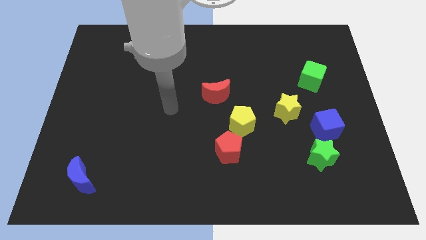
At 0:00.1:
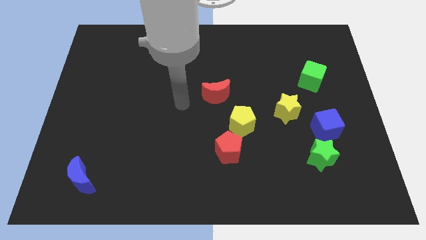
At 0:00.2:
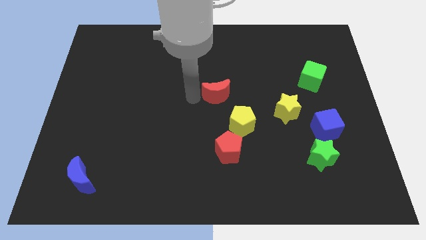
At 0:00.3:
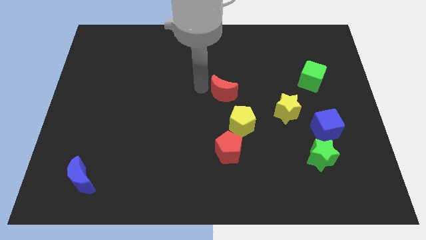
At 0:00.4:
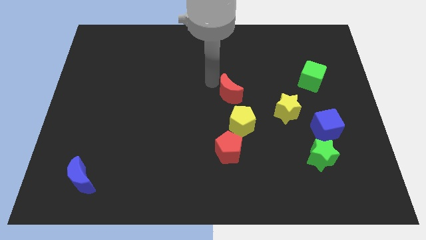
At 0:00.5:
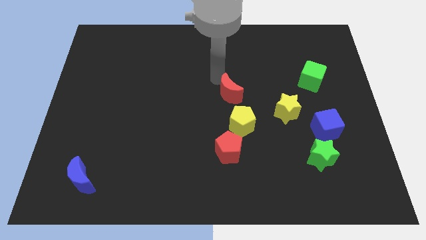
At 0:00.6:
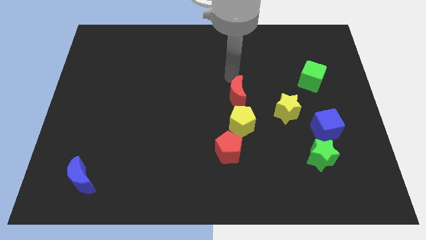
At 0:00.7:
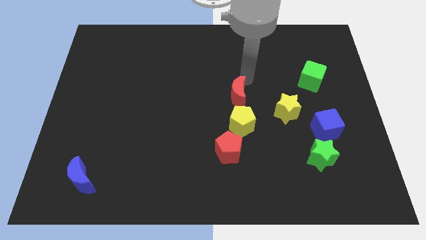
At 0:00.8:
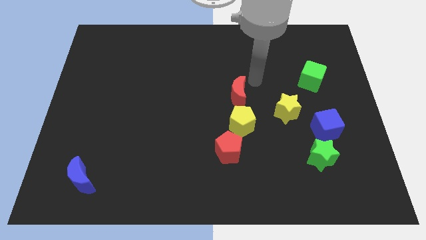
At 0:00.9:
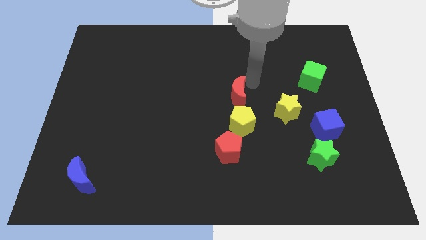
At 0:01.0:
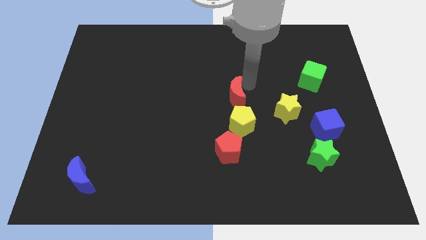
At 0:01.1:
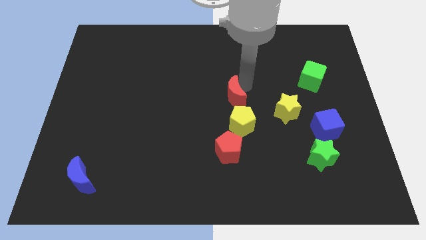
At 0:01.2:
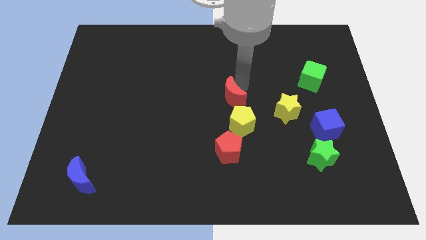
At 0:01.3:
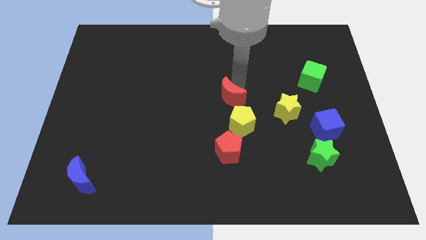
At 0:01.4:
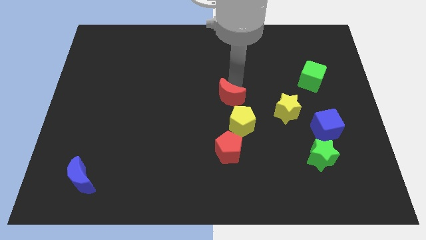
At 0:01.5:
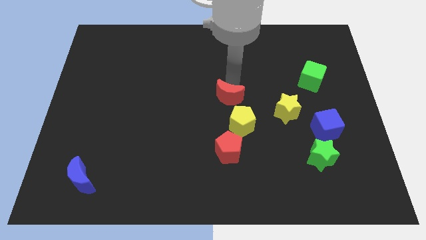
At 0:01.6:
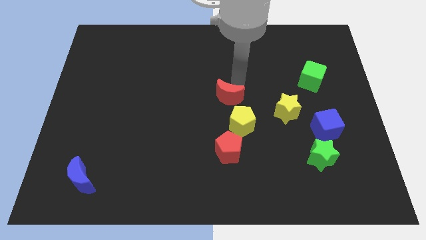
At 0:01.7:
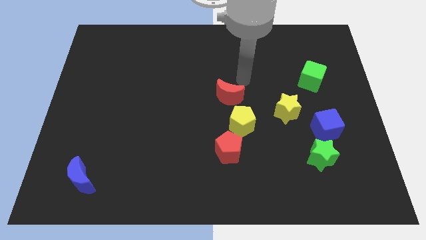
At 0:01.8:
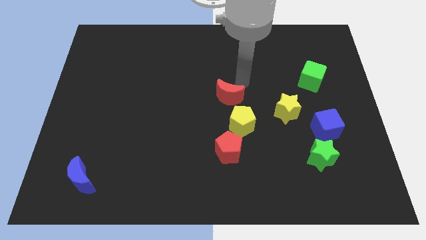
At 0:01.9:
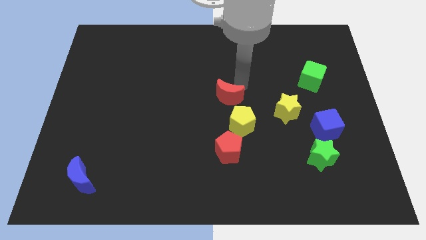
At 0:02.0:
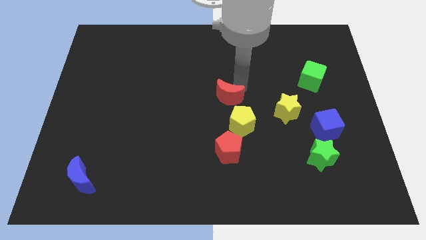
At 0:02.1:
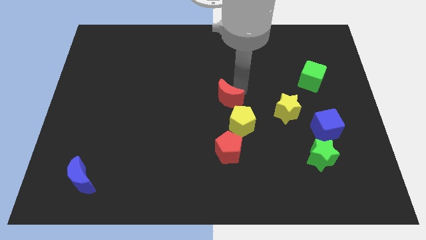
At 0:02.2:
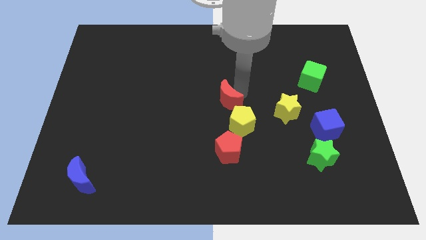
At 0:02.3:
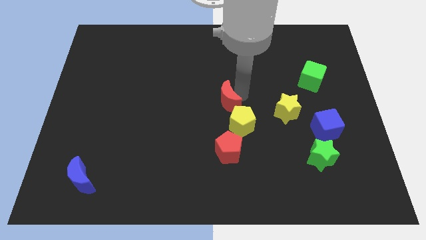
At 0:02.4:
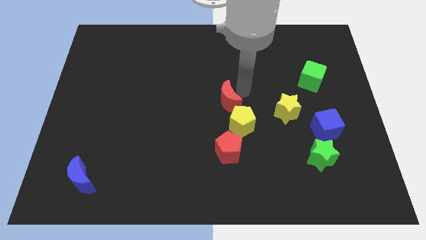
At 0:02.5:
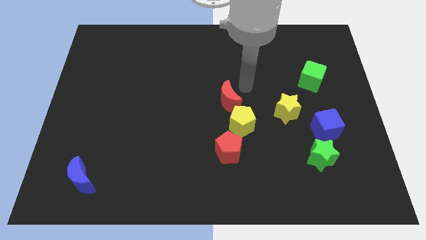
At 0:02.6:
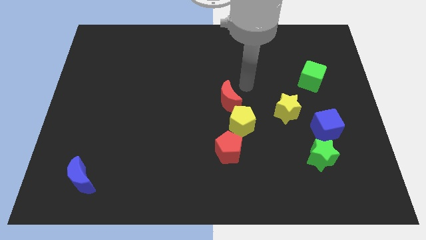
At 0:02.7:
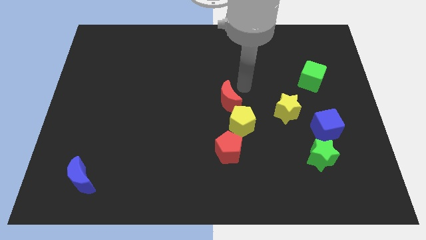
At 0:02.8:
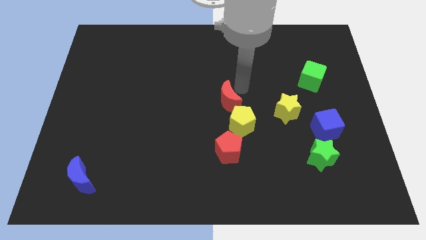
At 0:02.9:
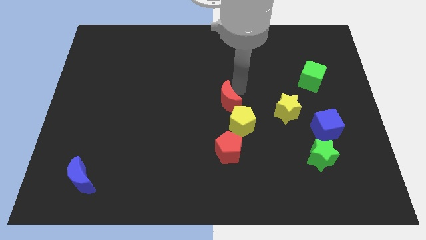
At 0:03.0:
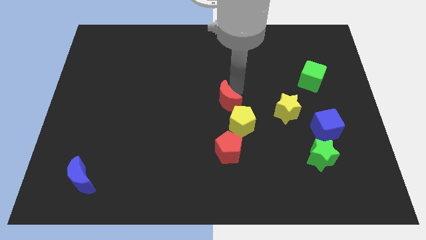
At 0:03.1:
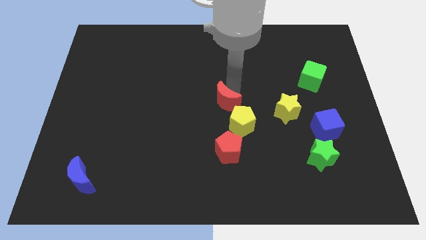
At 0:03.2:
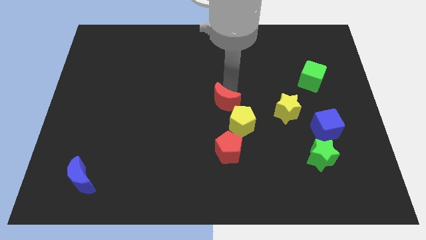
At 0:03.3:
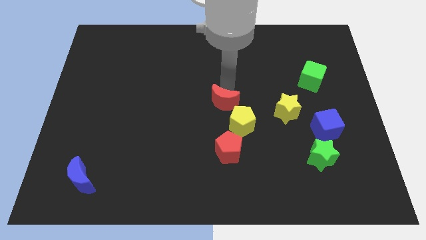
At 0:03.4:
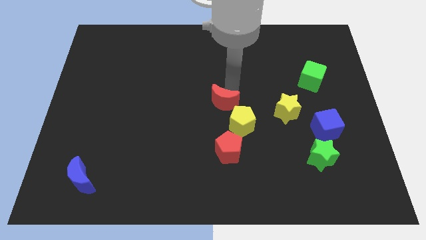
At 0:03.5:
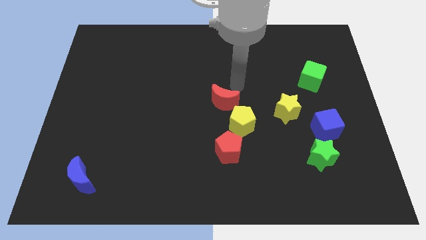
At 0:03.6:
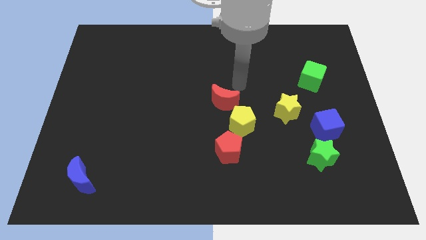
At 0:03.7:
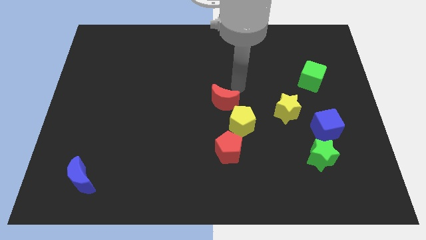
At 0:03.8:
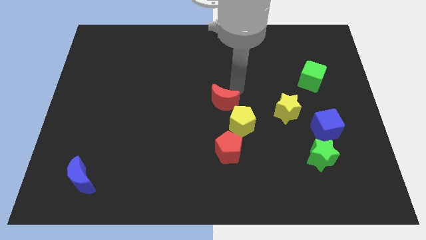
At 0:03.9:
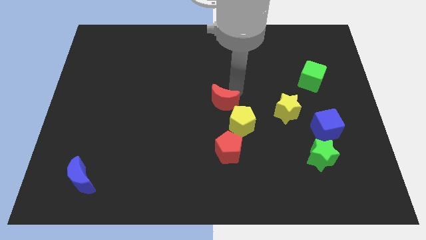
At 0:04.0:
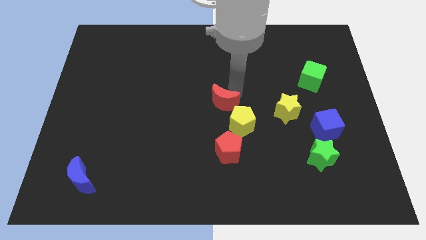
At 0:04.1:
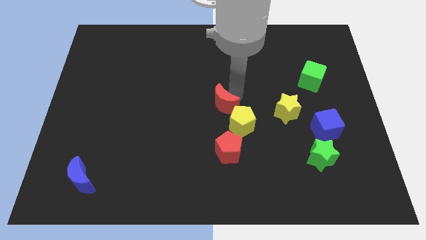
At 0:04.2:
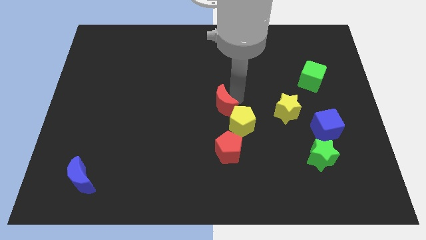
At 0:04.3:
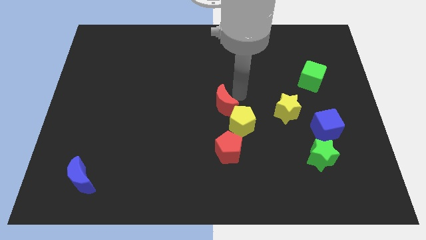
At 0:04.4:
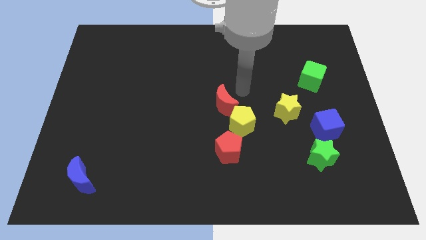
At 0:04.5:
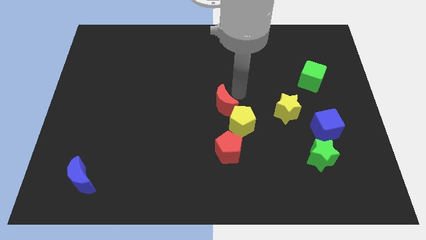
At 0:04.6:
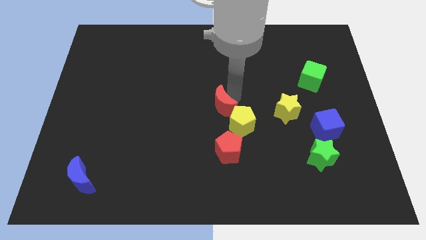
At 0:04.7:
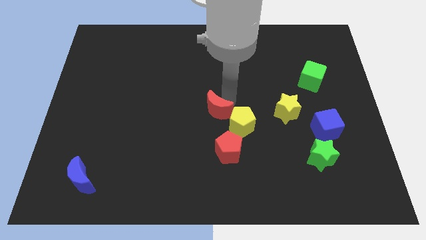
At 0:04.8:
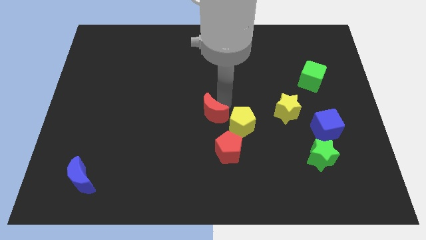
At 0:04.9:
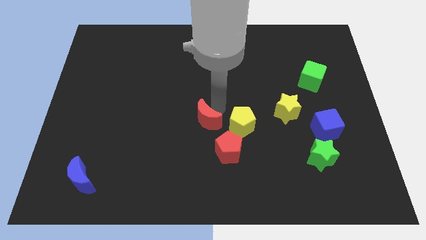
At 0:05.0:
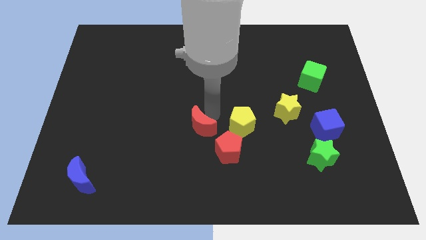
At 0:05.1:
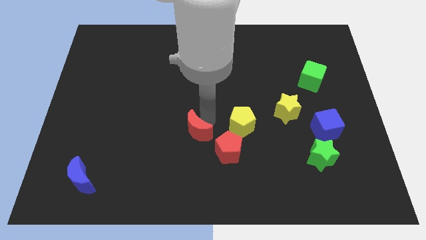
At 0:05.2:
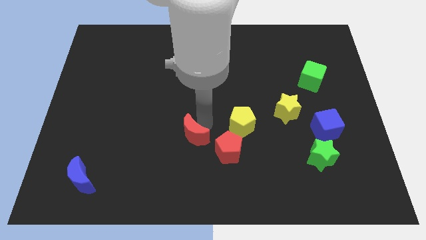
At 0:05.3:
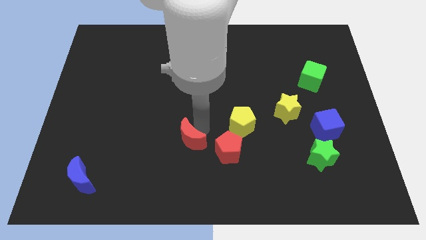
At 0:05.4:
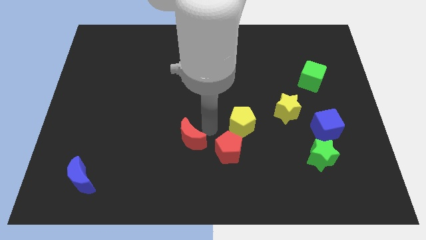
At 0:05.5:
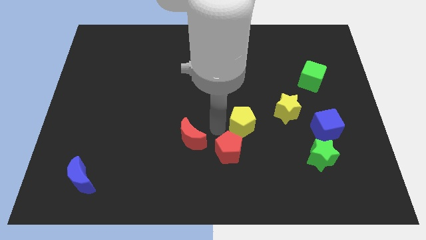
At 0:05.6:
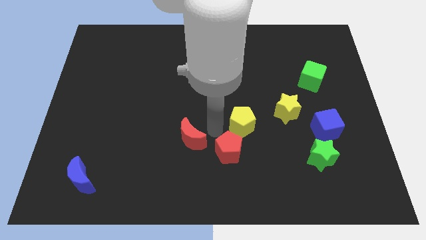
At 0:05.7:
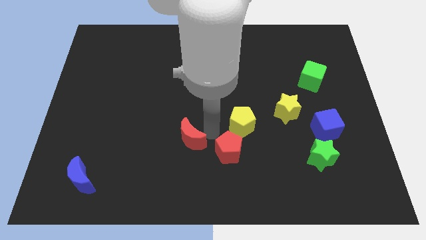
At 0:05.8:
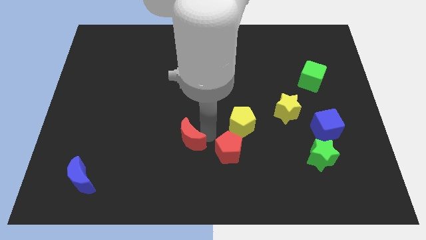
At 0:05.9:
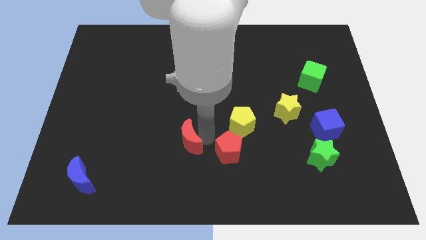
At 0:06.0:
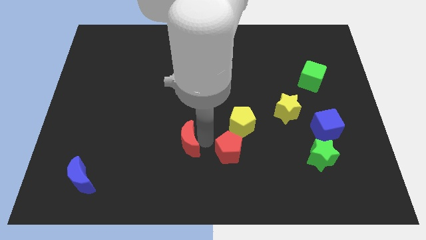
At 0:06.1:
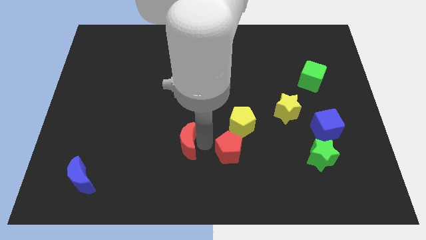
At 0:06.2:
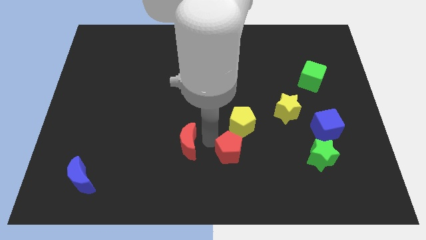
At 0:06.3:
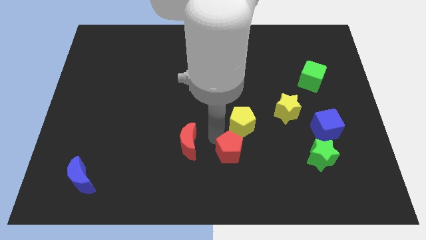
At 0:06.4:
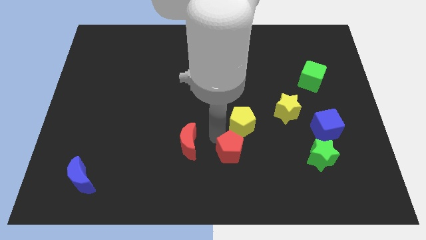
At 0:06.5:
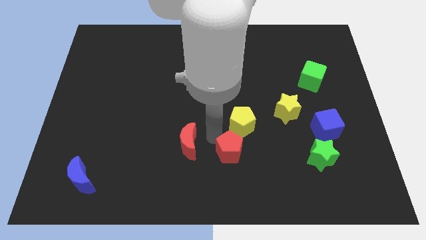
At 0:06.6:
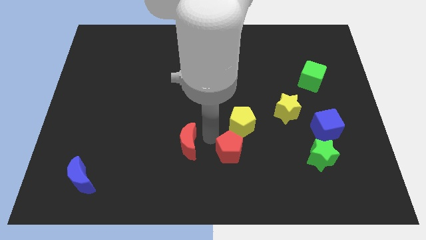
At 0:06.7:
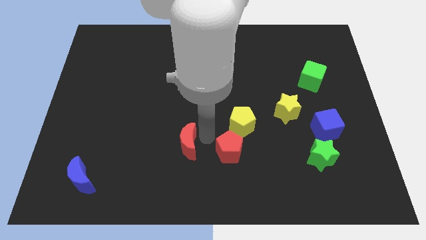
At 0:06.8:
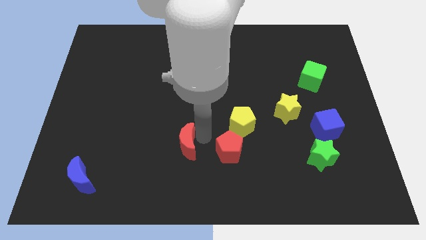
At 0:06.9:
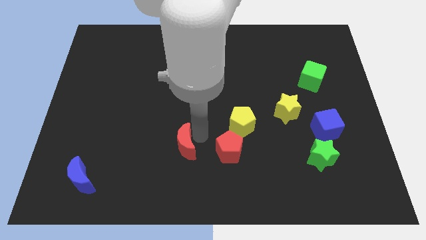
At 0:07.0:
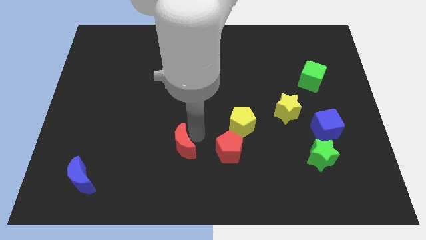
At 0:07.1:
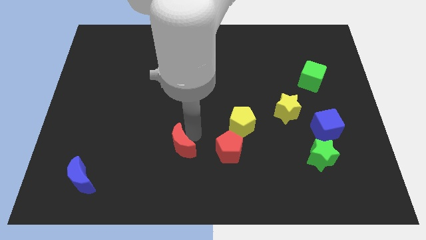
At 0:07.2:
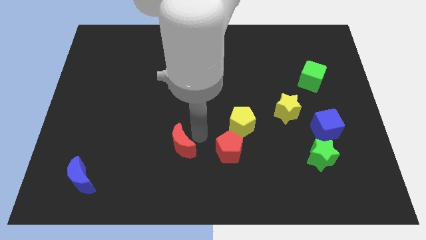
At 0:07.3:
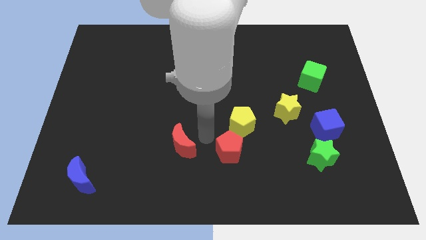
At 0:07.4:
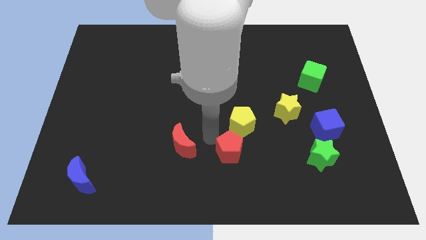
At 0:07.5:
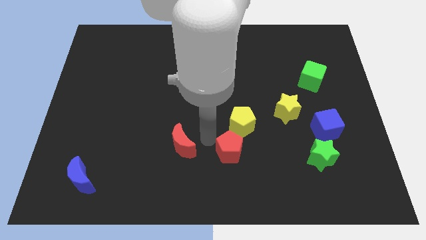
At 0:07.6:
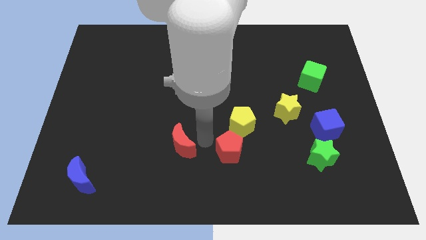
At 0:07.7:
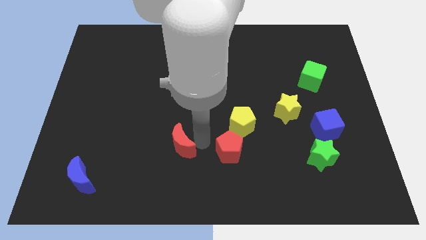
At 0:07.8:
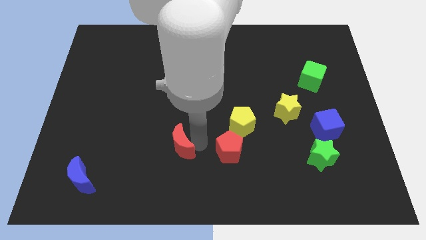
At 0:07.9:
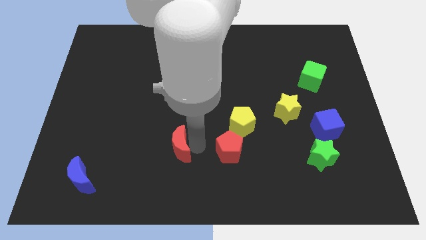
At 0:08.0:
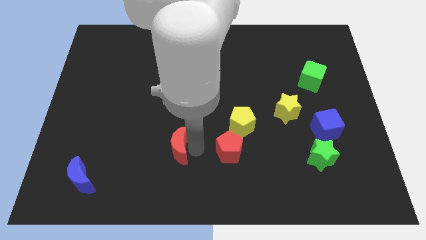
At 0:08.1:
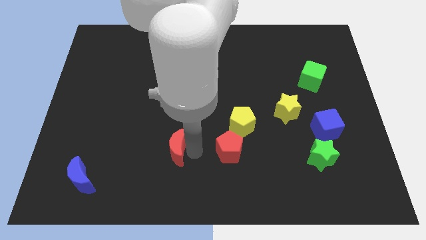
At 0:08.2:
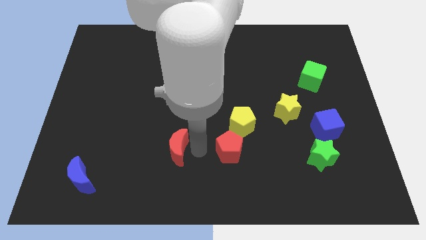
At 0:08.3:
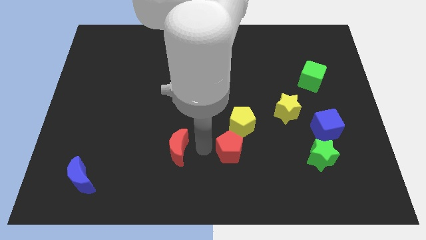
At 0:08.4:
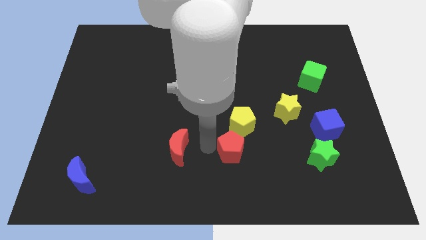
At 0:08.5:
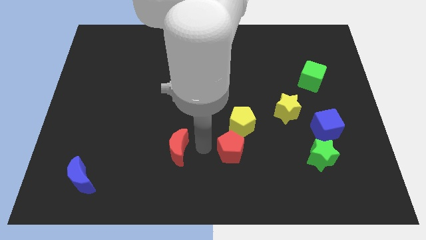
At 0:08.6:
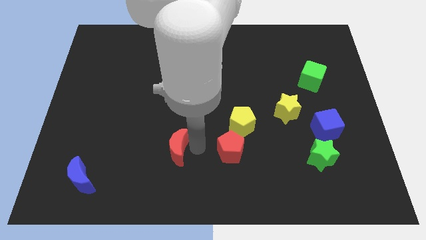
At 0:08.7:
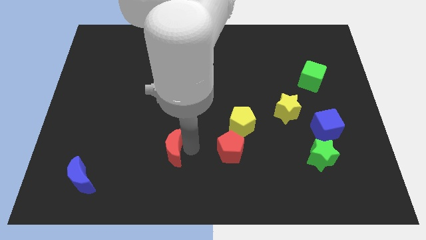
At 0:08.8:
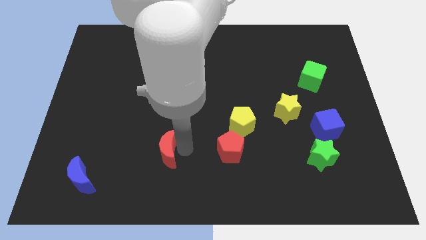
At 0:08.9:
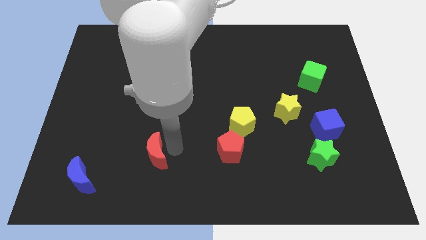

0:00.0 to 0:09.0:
move the red moon diagonally downwards and left
